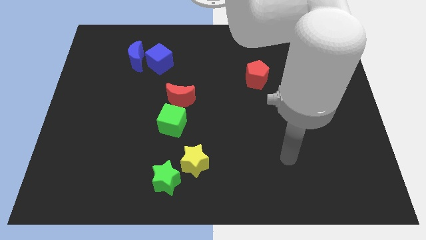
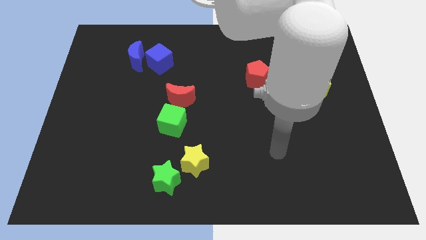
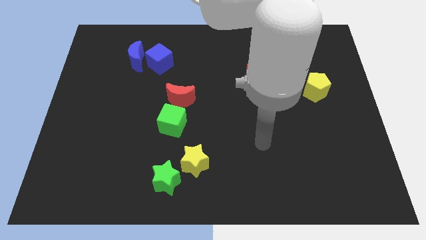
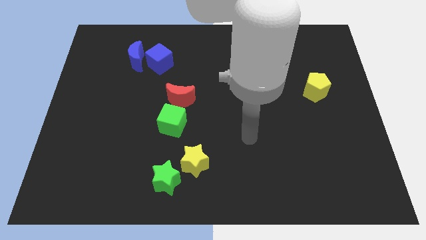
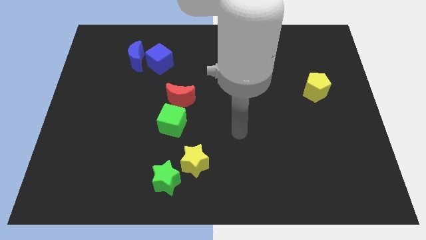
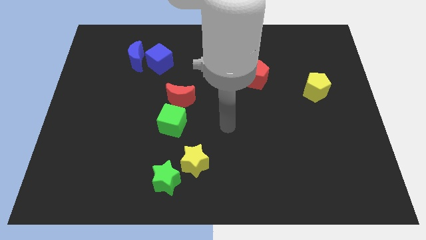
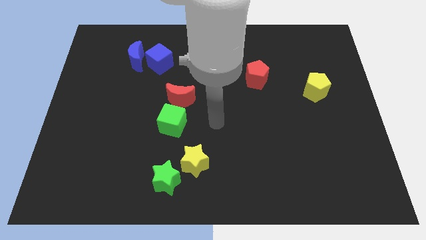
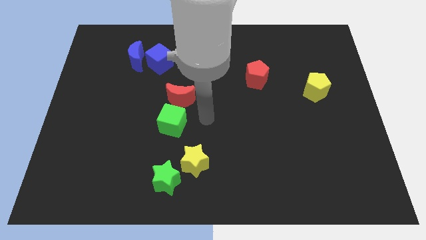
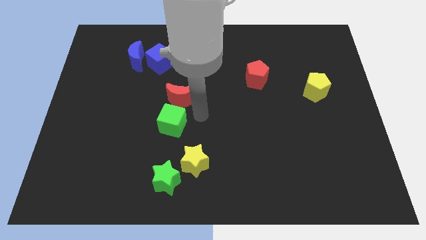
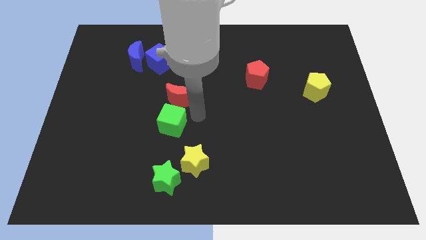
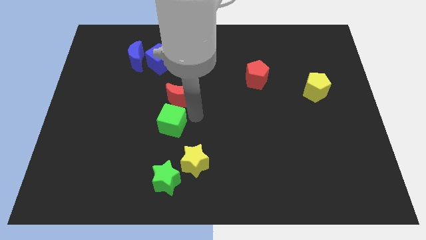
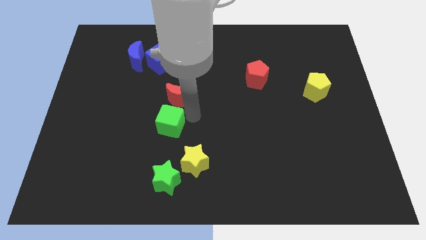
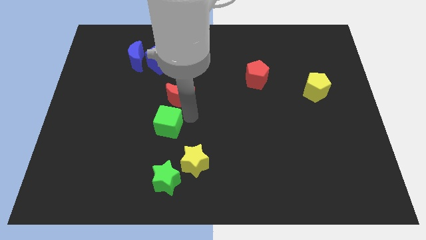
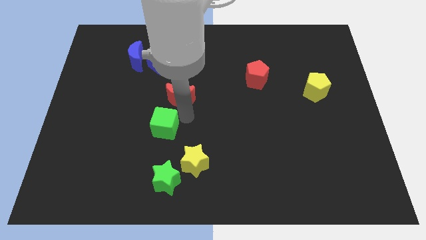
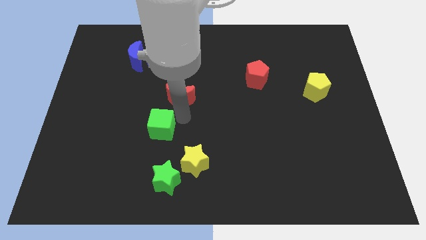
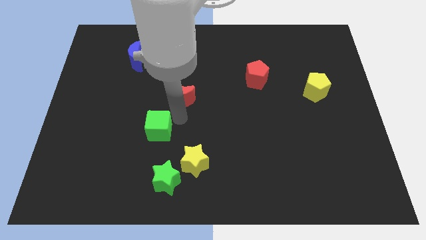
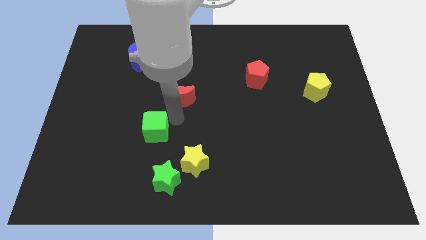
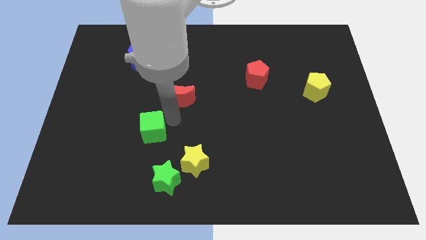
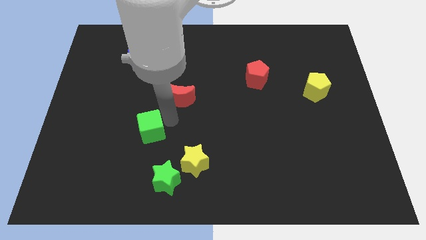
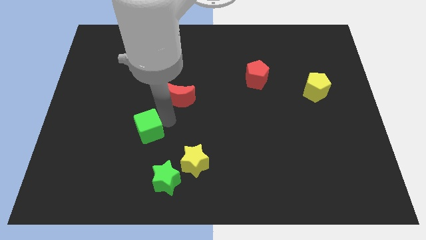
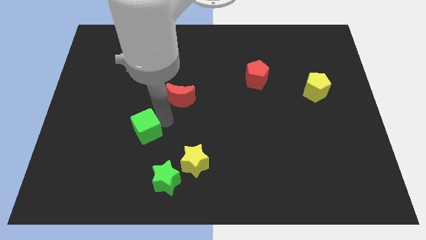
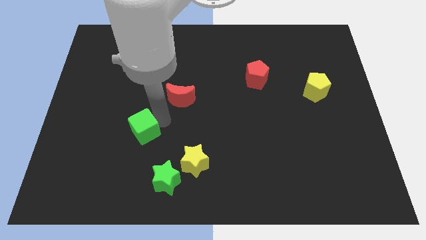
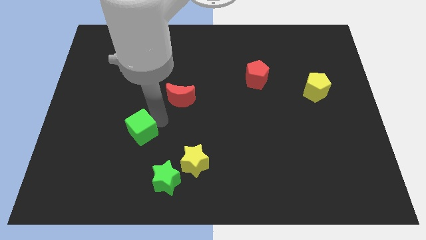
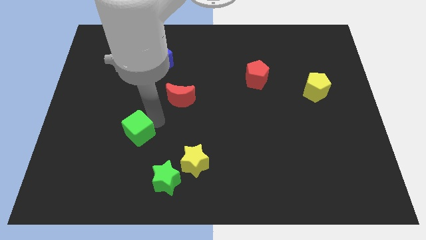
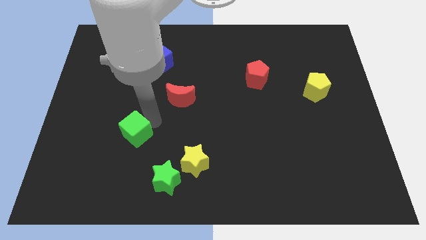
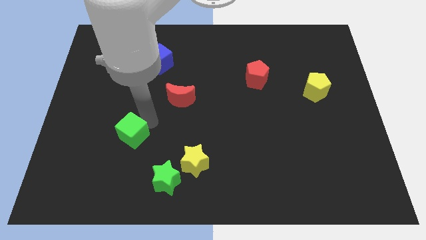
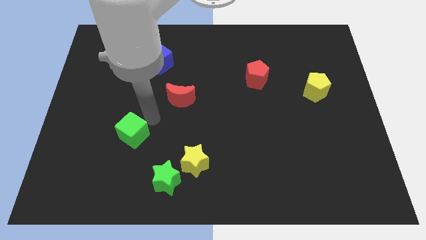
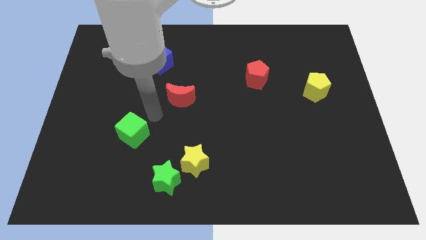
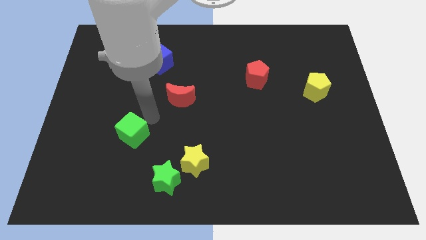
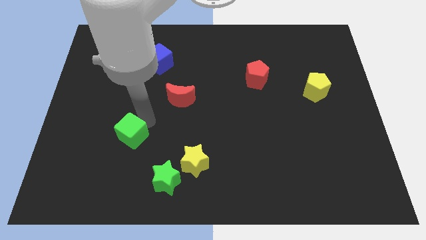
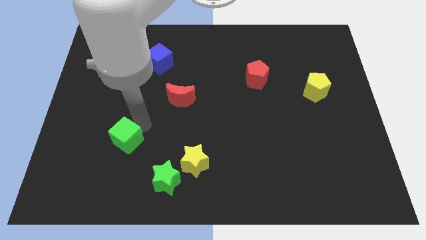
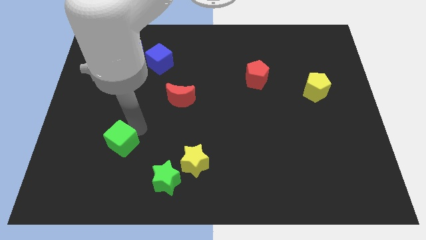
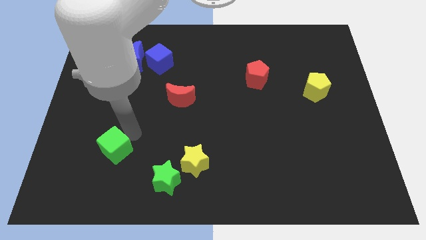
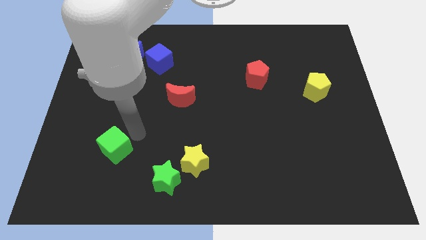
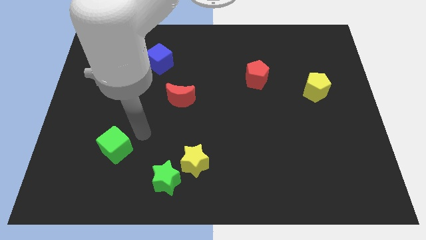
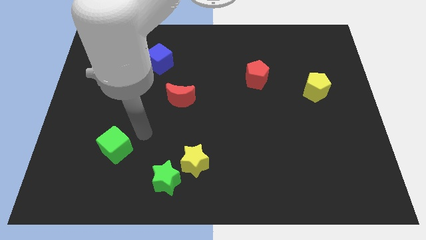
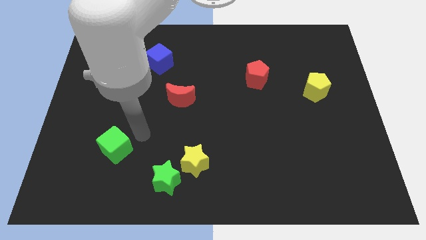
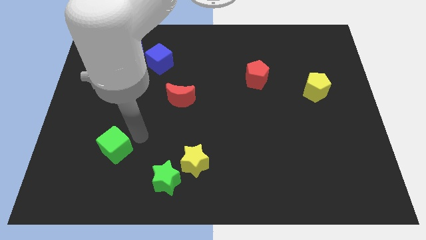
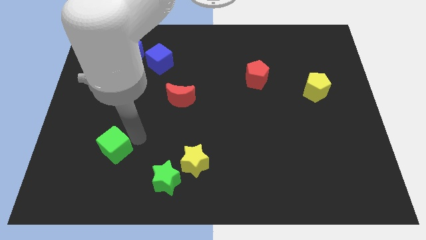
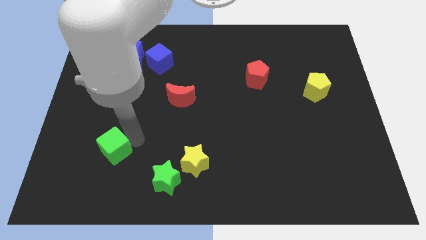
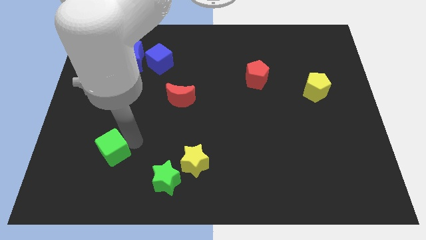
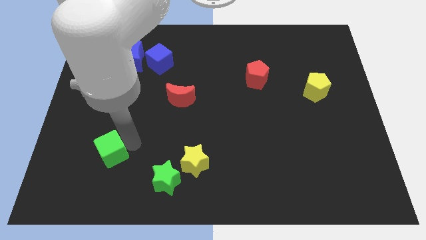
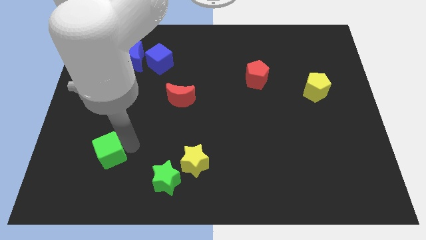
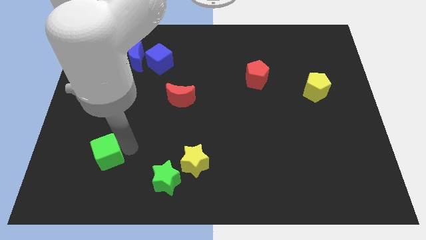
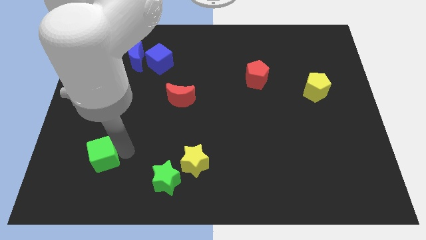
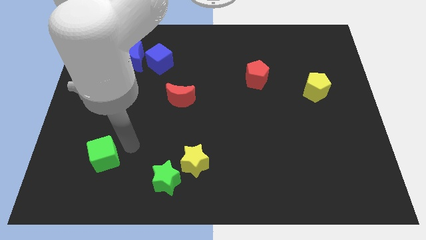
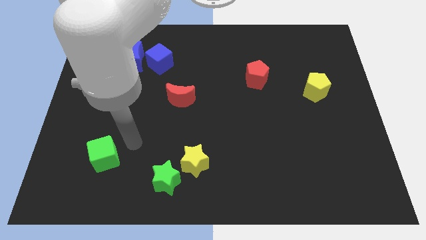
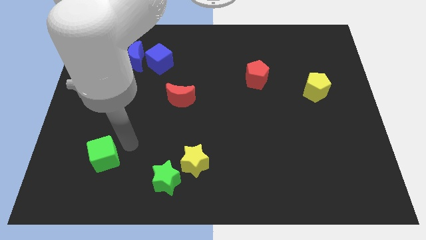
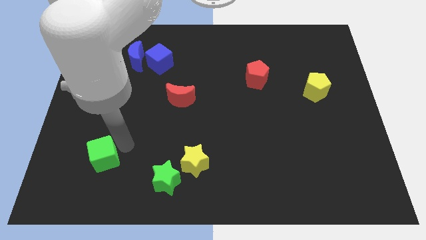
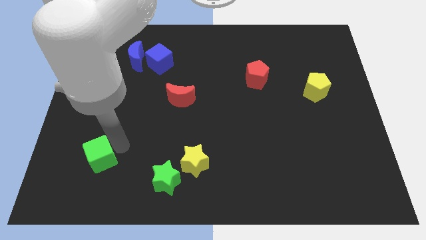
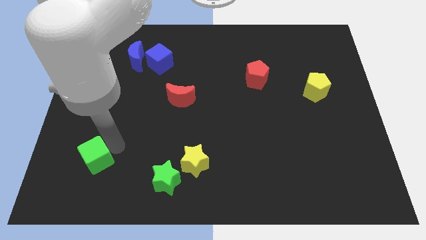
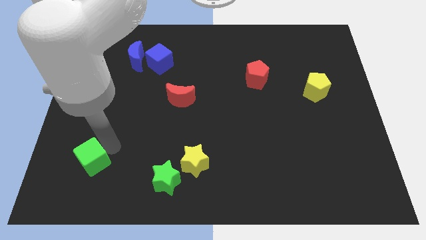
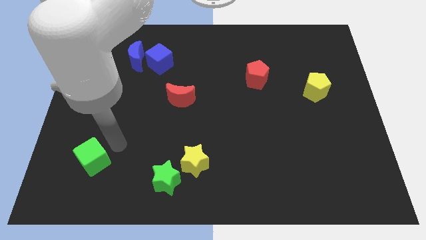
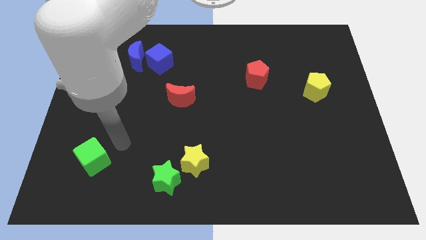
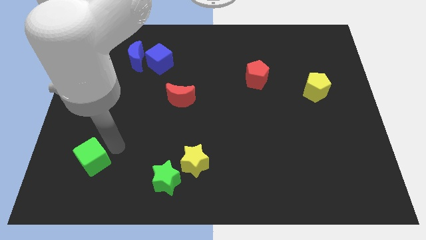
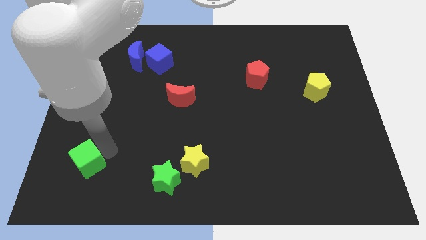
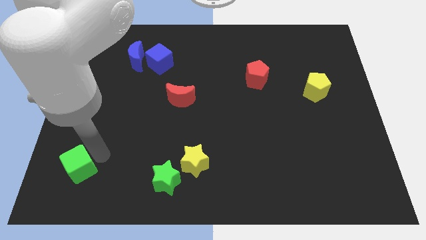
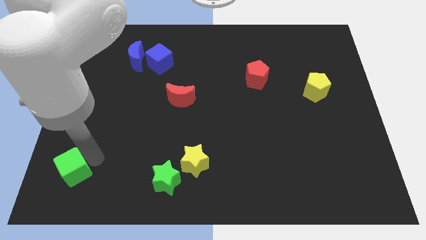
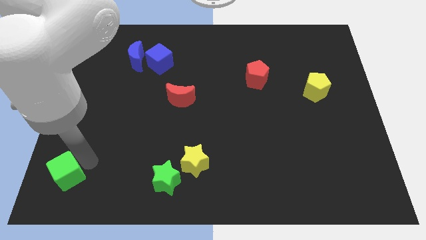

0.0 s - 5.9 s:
move the green cube to the bottom left corner

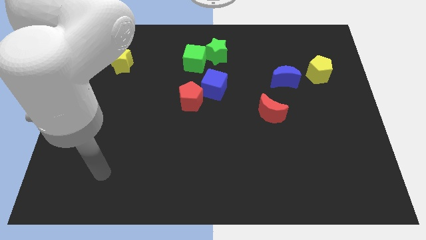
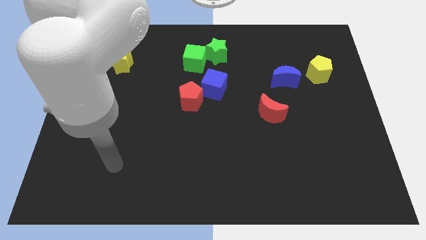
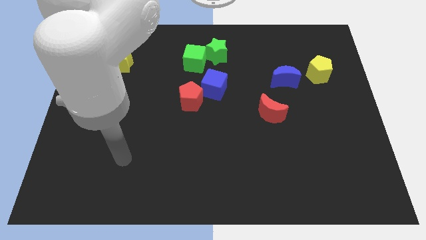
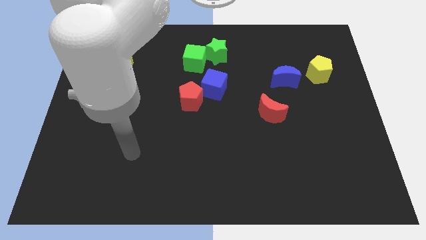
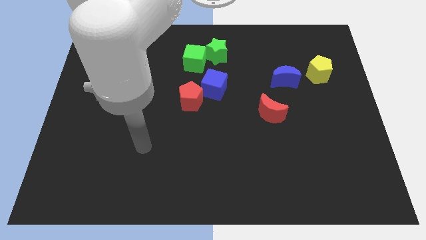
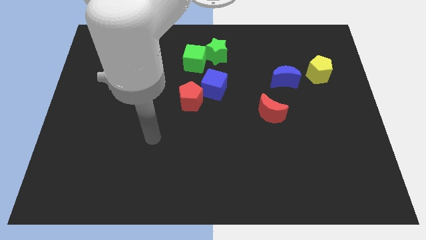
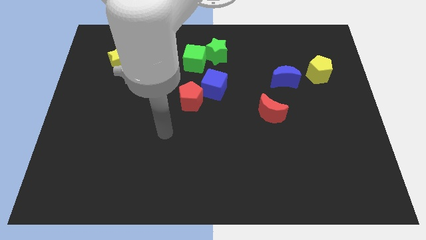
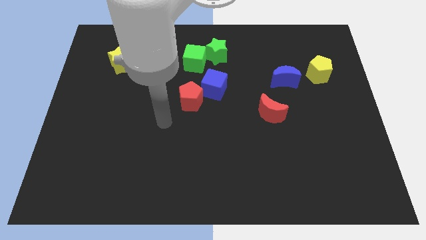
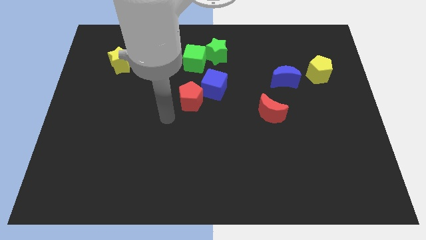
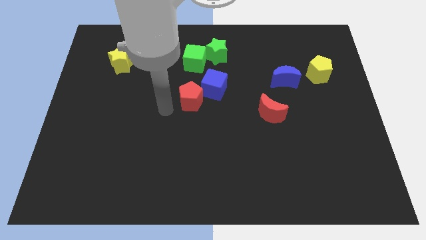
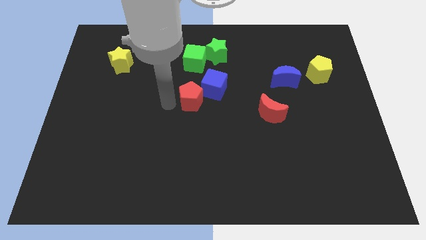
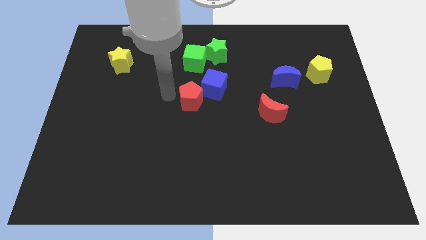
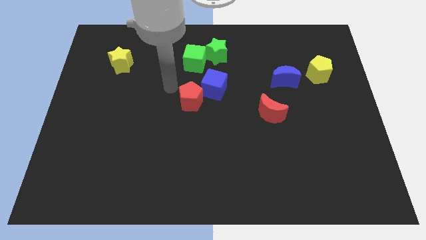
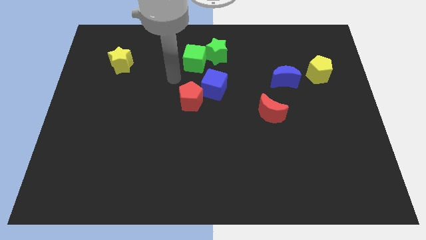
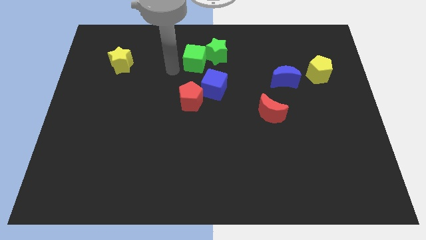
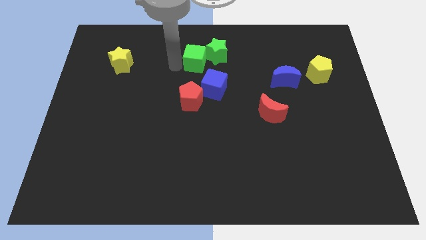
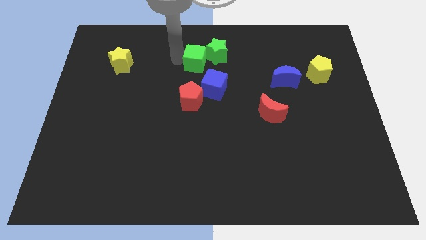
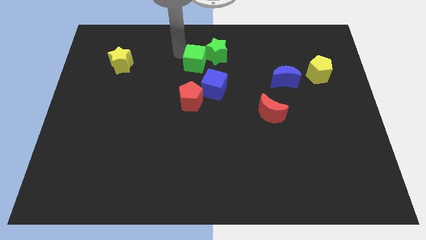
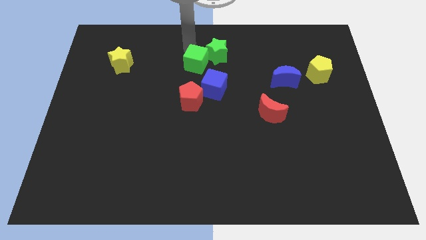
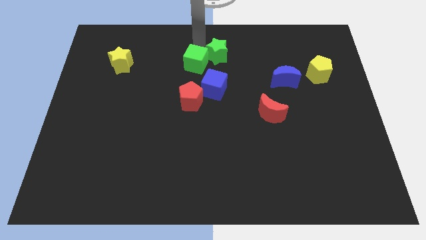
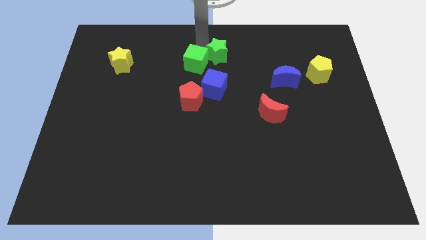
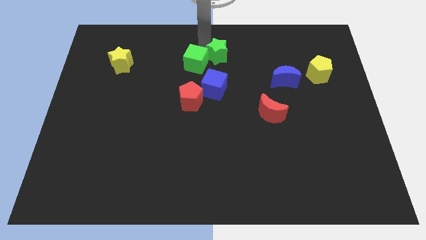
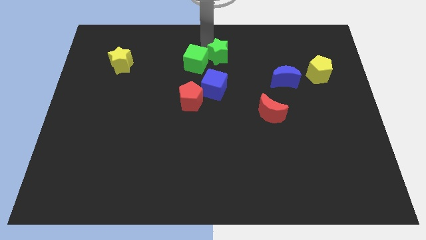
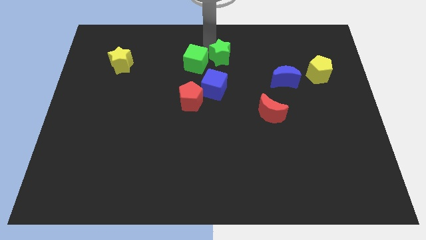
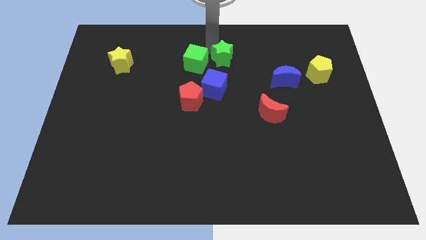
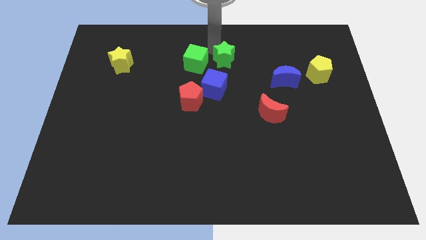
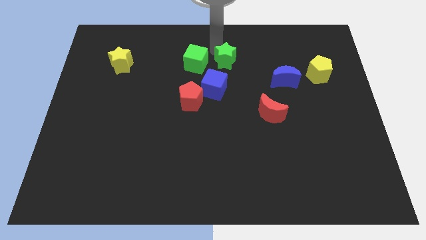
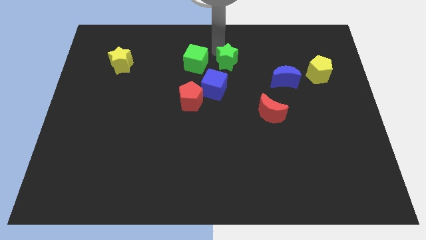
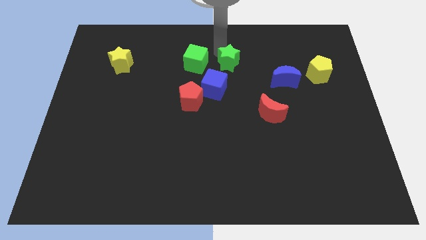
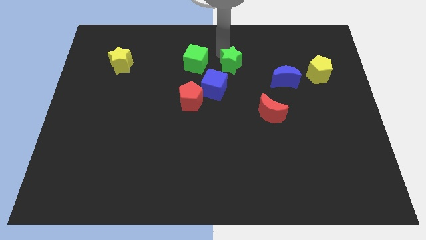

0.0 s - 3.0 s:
push the green star to the center of the board
